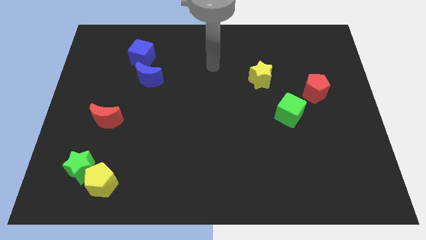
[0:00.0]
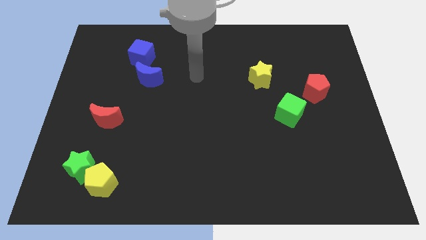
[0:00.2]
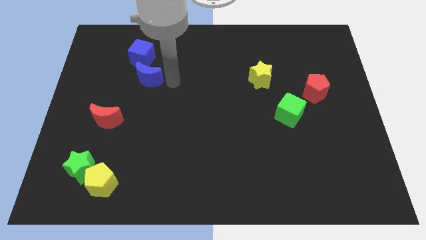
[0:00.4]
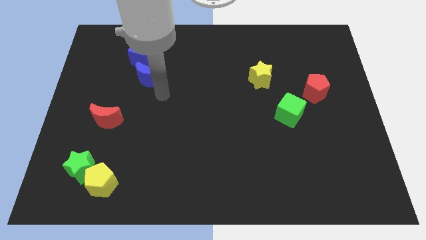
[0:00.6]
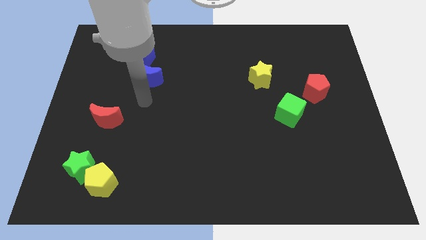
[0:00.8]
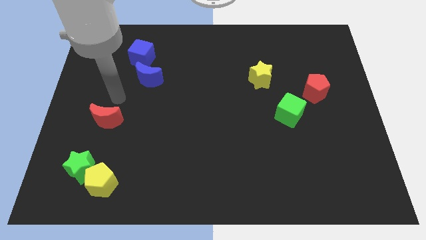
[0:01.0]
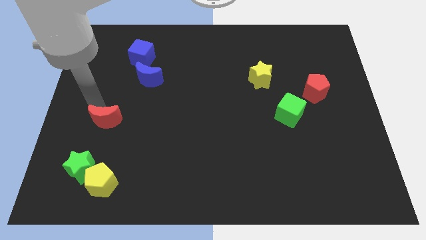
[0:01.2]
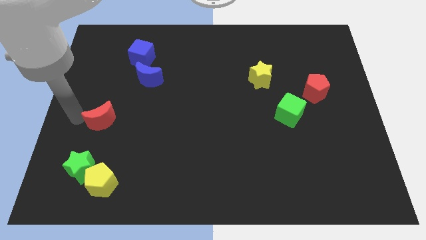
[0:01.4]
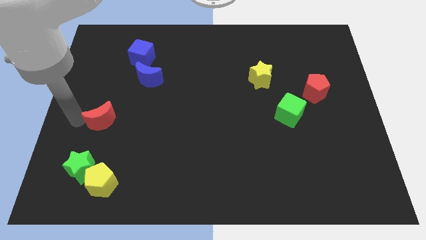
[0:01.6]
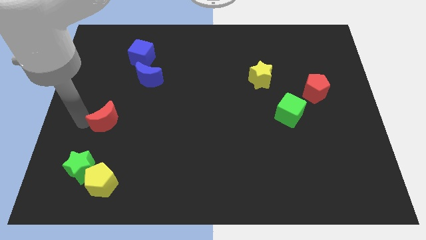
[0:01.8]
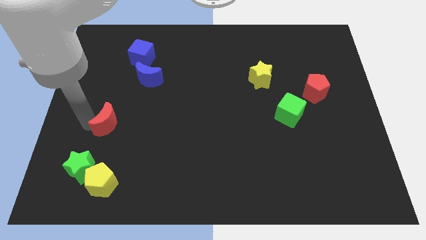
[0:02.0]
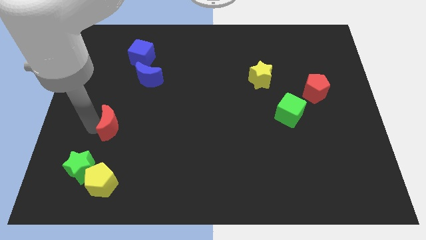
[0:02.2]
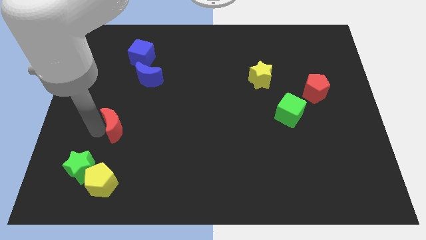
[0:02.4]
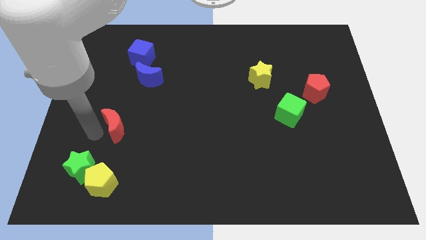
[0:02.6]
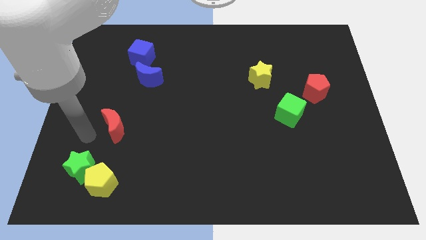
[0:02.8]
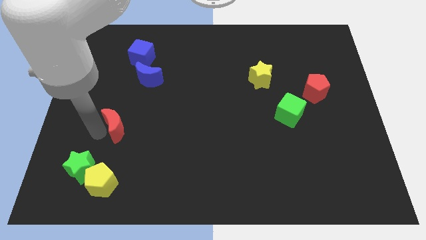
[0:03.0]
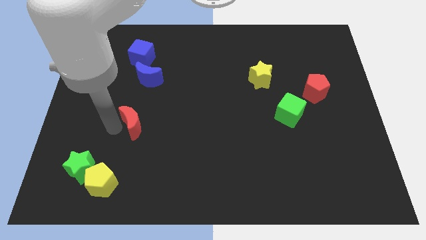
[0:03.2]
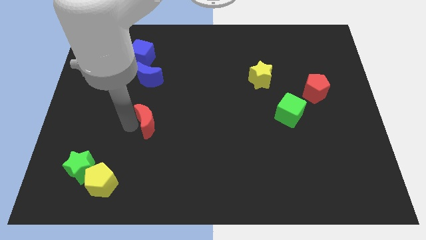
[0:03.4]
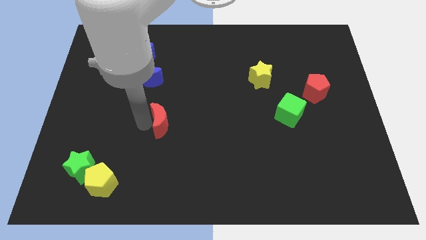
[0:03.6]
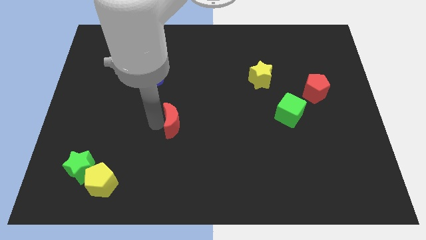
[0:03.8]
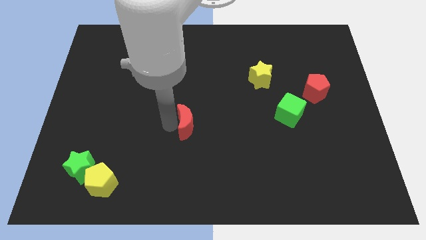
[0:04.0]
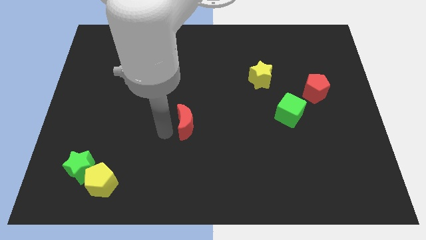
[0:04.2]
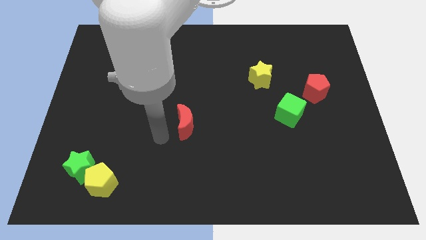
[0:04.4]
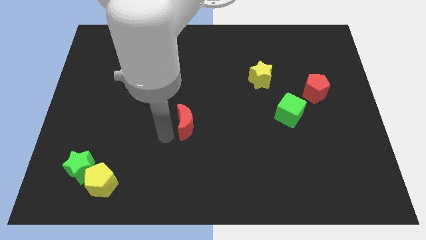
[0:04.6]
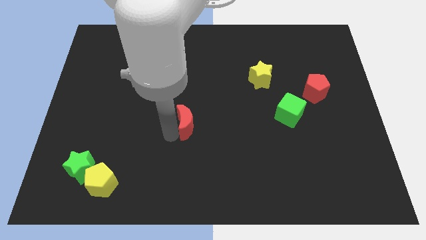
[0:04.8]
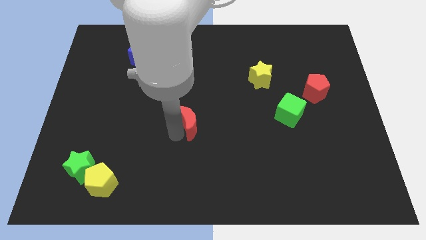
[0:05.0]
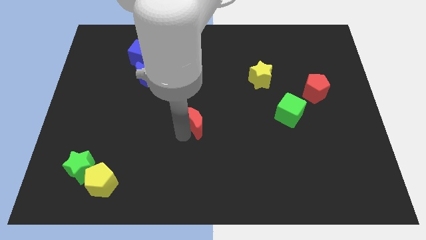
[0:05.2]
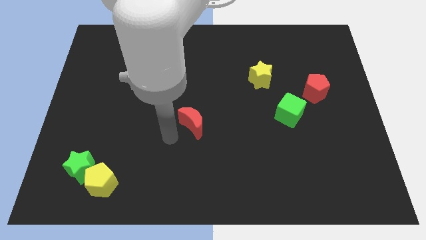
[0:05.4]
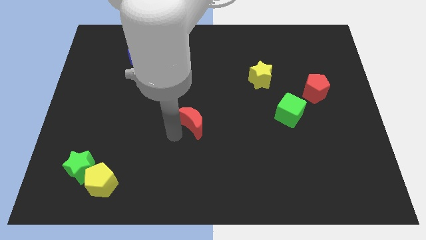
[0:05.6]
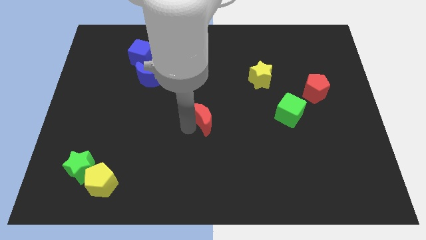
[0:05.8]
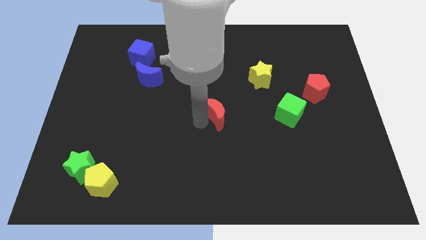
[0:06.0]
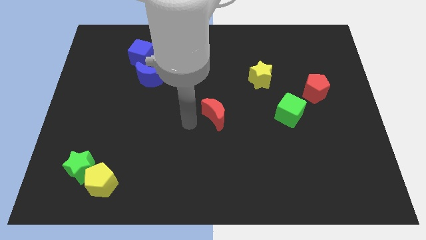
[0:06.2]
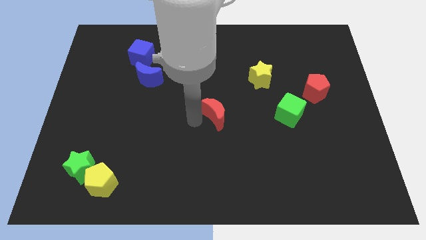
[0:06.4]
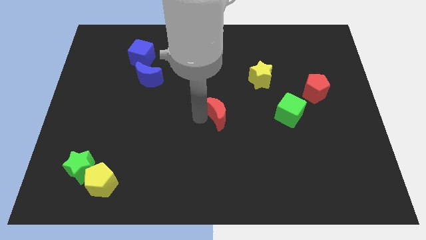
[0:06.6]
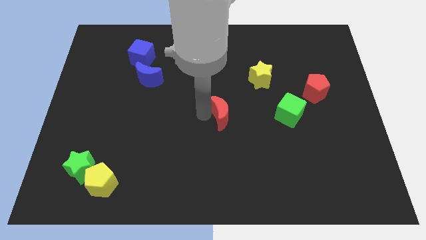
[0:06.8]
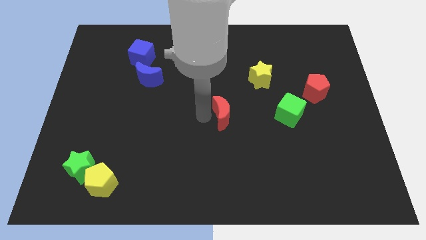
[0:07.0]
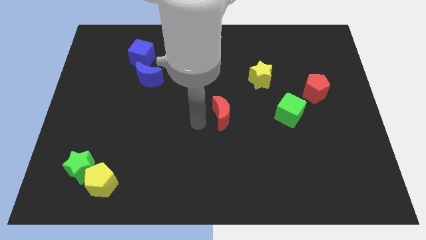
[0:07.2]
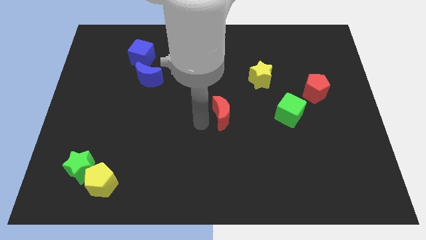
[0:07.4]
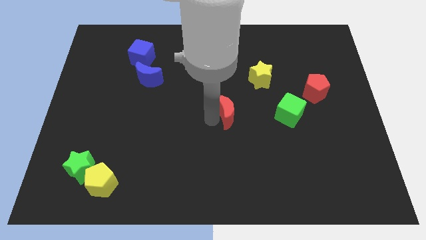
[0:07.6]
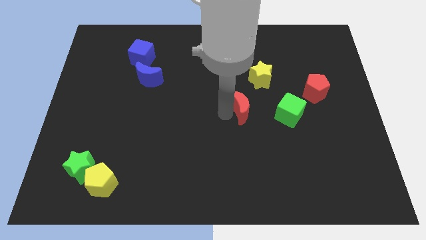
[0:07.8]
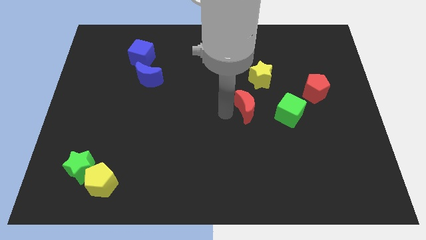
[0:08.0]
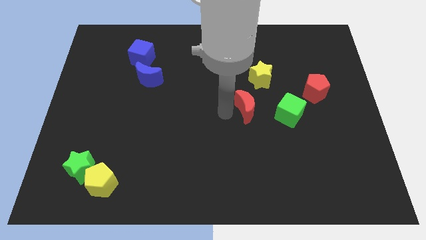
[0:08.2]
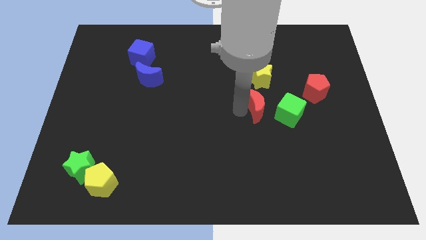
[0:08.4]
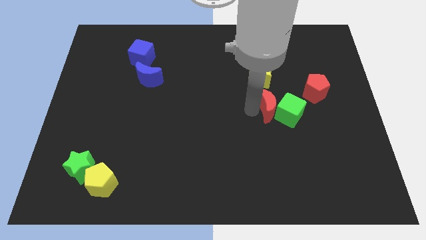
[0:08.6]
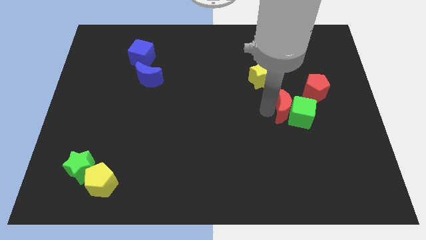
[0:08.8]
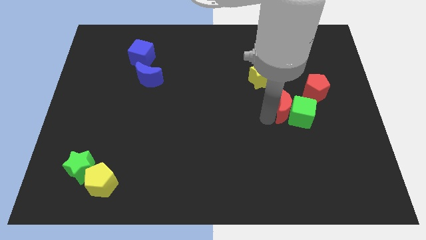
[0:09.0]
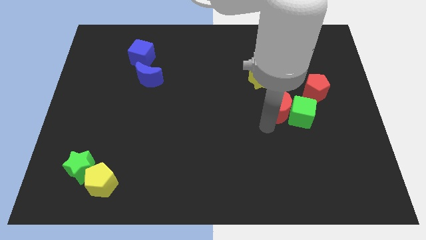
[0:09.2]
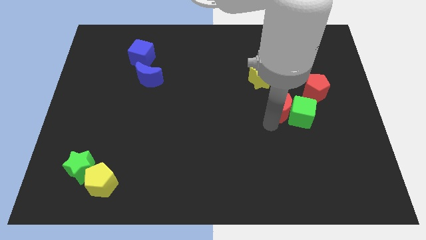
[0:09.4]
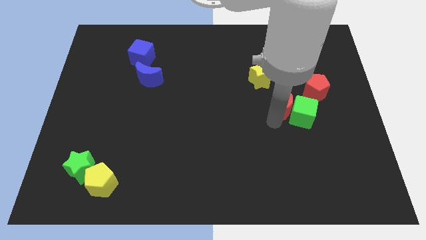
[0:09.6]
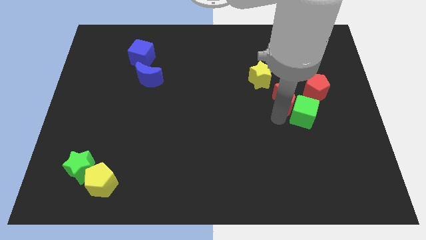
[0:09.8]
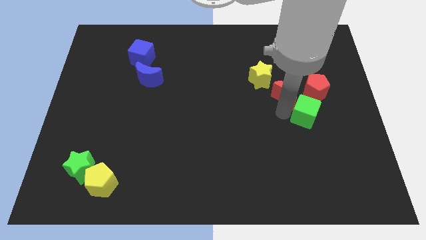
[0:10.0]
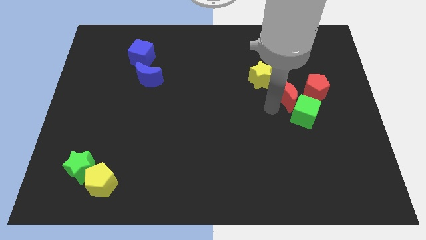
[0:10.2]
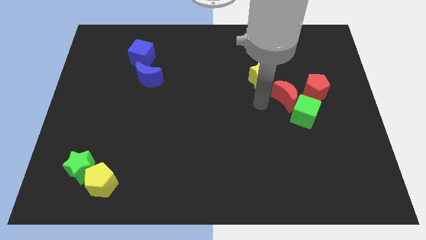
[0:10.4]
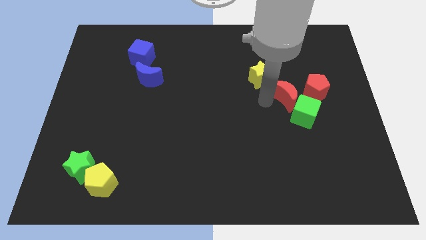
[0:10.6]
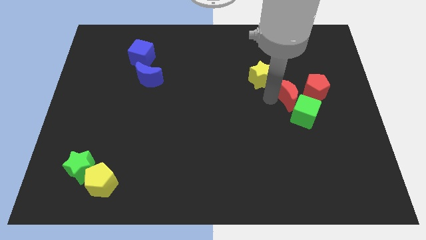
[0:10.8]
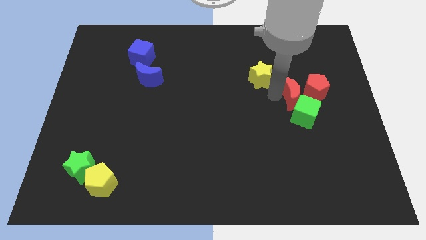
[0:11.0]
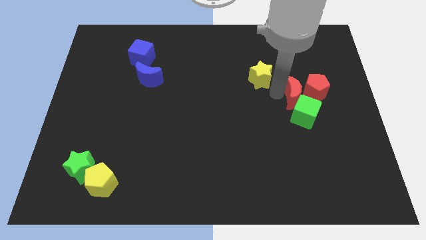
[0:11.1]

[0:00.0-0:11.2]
slide the red moon next to the red pentagon

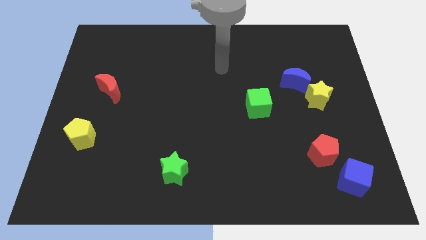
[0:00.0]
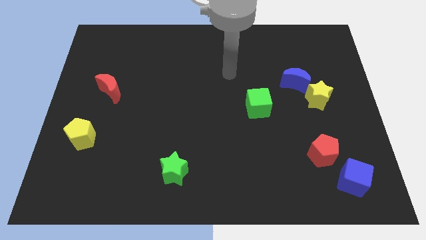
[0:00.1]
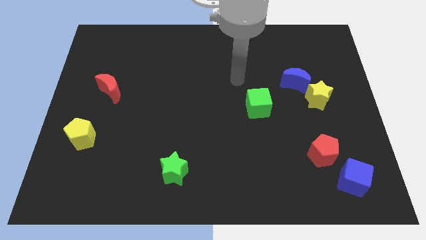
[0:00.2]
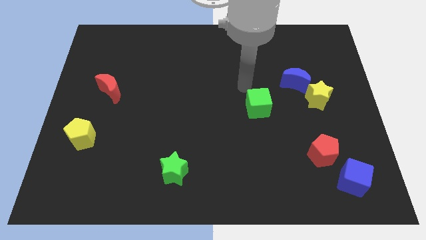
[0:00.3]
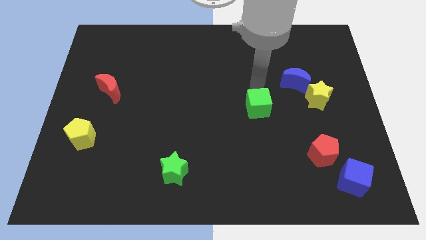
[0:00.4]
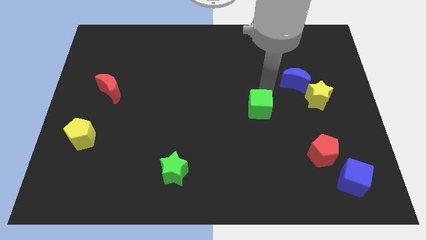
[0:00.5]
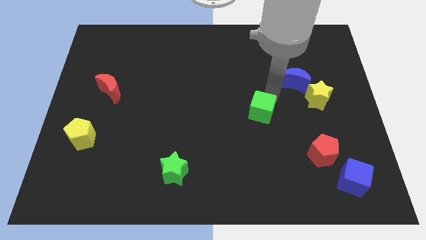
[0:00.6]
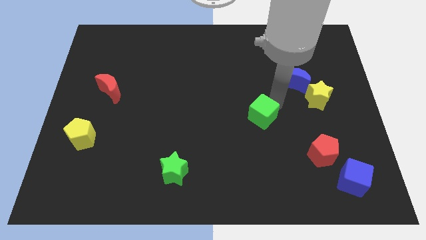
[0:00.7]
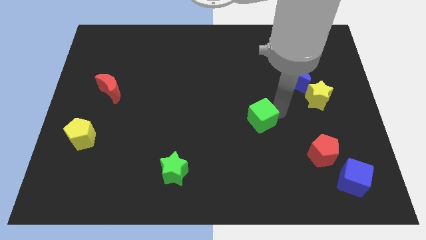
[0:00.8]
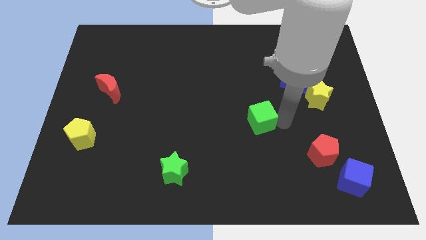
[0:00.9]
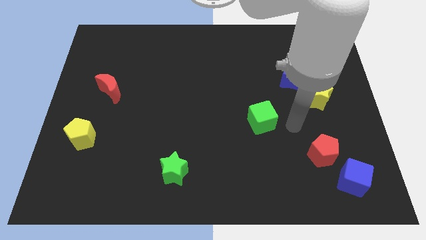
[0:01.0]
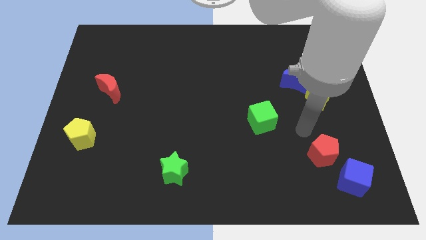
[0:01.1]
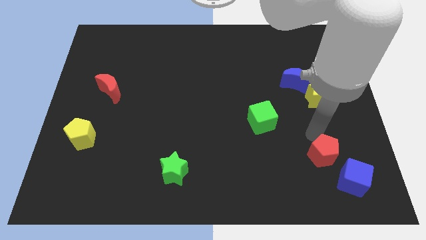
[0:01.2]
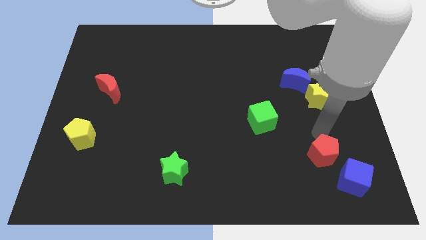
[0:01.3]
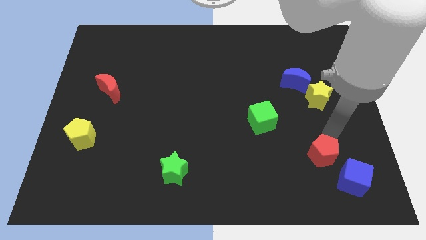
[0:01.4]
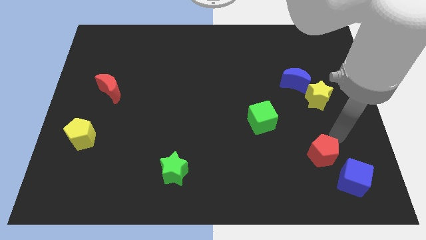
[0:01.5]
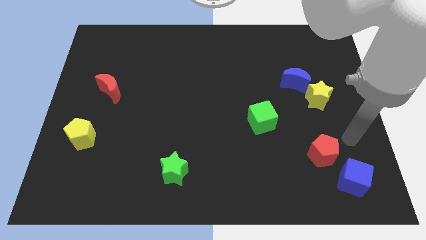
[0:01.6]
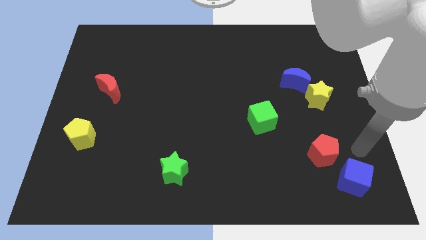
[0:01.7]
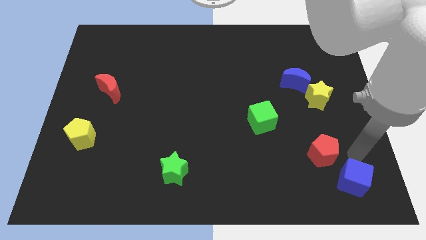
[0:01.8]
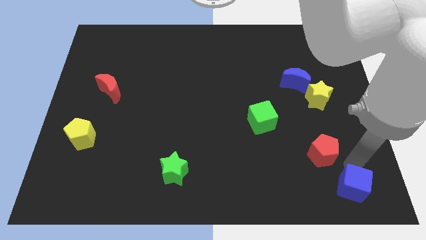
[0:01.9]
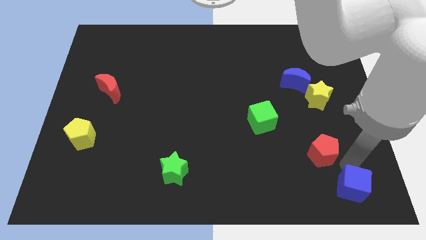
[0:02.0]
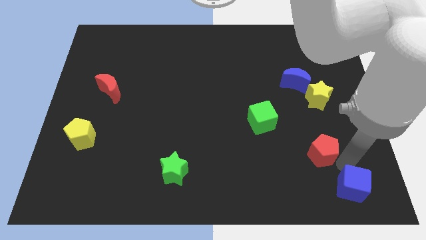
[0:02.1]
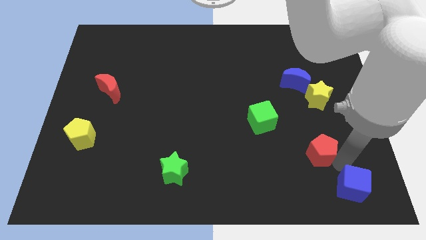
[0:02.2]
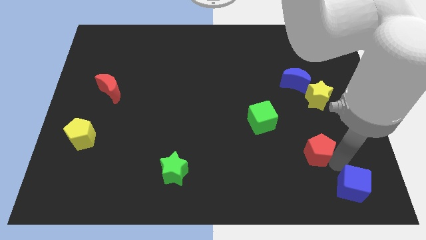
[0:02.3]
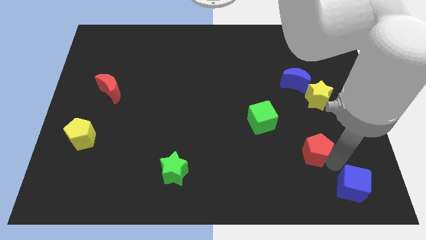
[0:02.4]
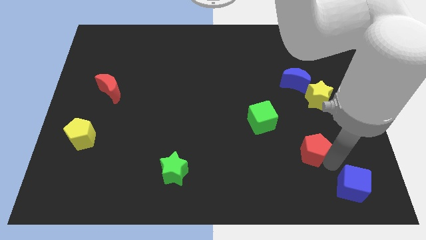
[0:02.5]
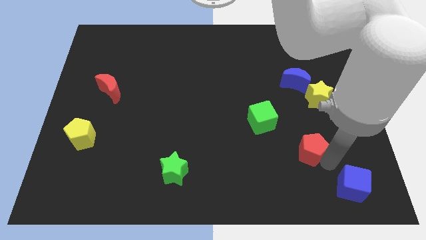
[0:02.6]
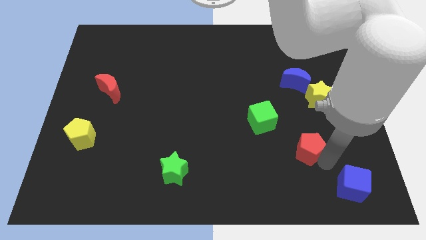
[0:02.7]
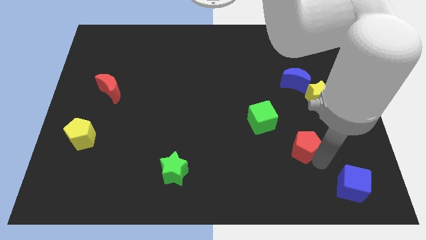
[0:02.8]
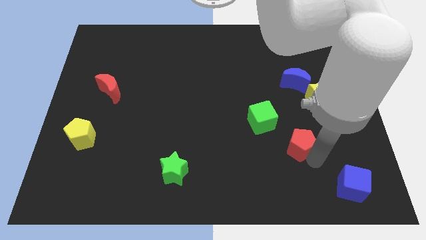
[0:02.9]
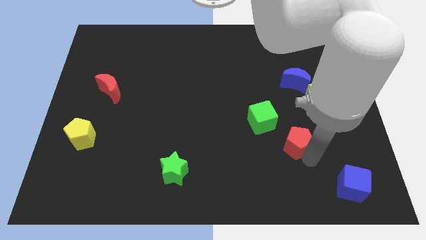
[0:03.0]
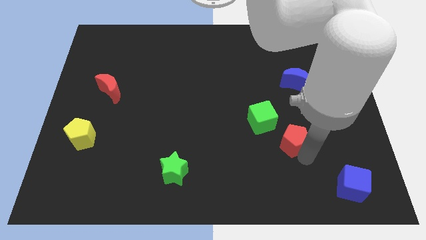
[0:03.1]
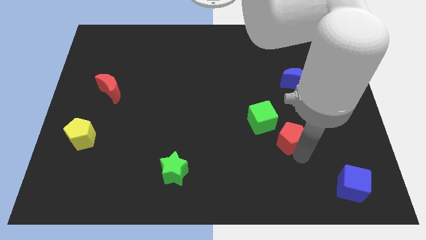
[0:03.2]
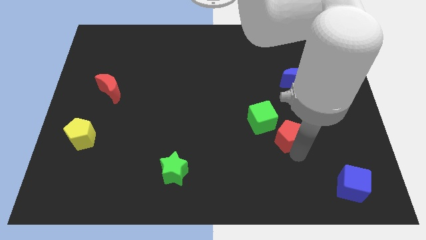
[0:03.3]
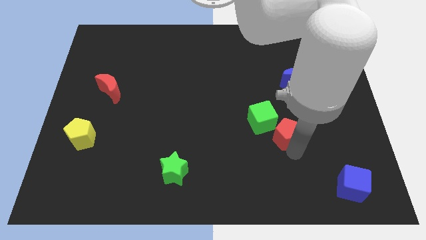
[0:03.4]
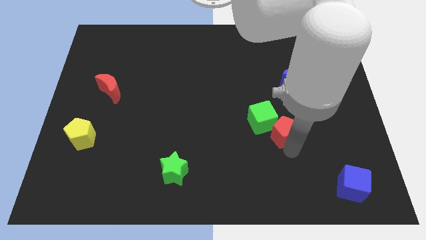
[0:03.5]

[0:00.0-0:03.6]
slide the red pentagon next to the green cube
